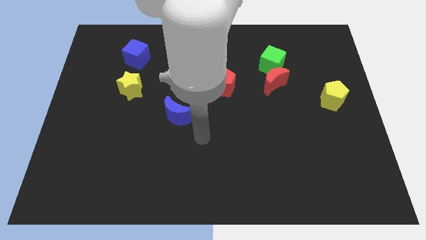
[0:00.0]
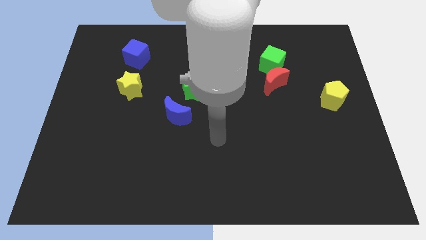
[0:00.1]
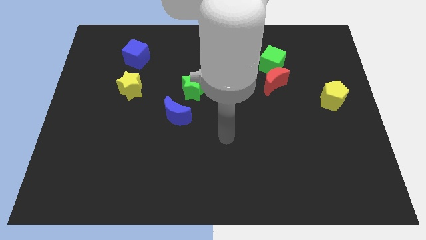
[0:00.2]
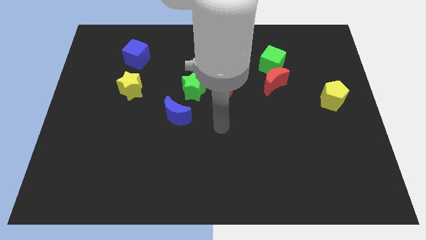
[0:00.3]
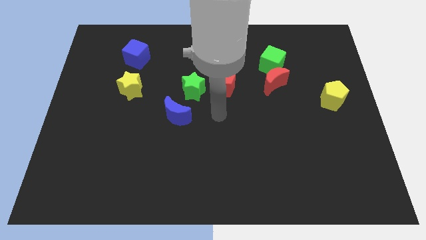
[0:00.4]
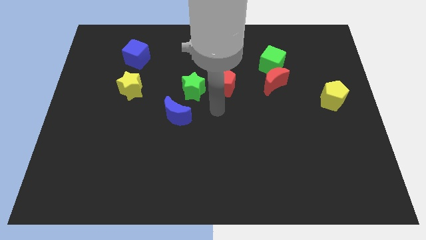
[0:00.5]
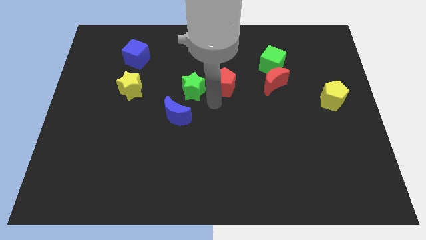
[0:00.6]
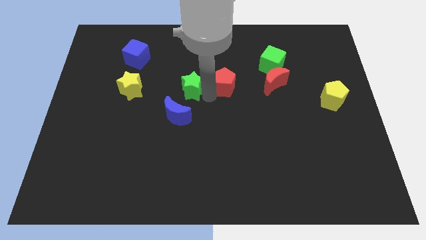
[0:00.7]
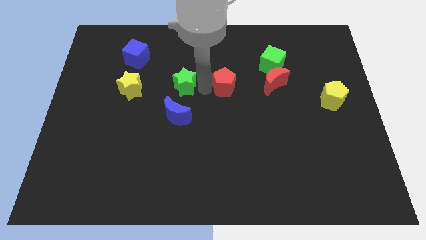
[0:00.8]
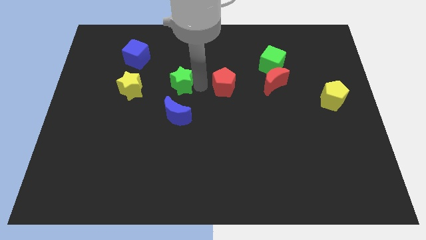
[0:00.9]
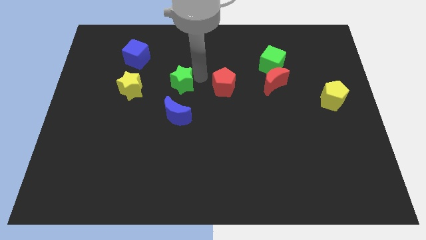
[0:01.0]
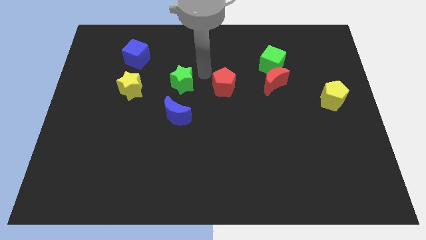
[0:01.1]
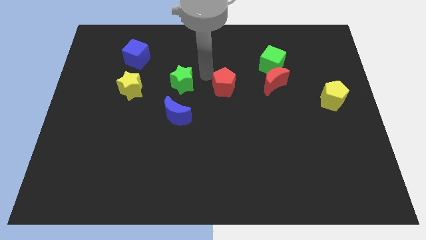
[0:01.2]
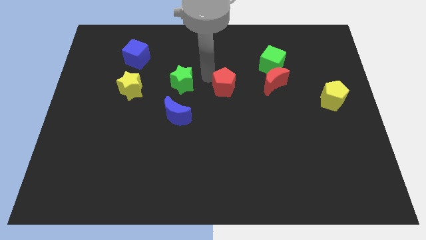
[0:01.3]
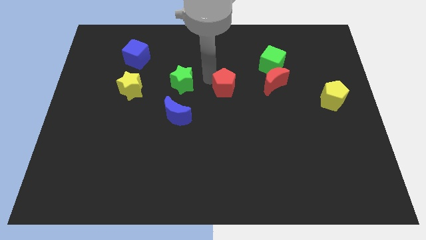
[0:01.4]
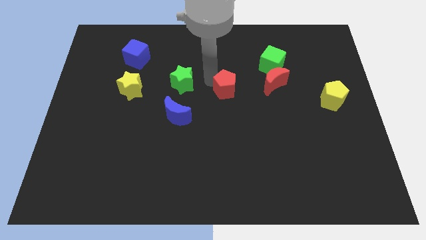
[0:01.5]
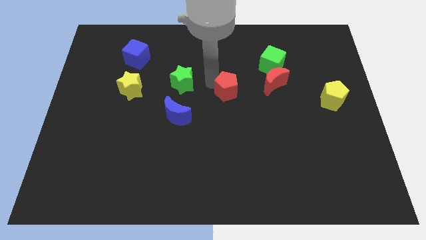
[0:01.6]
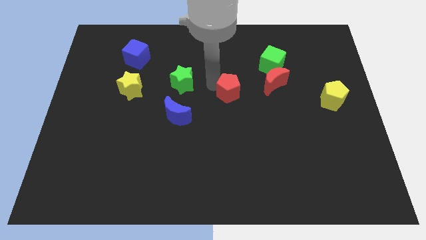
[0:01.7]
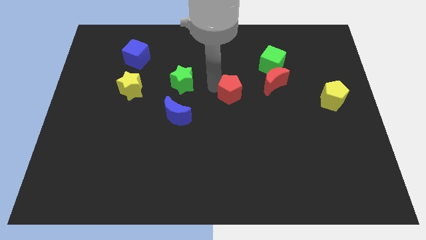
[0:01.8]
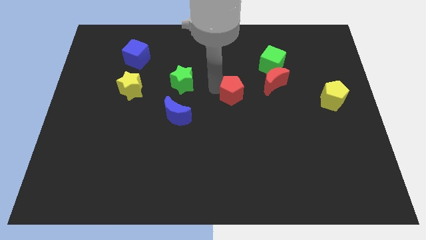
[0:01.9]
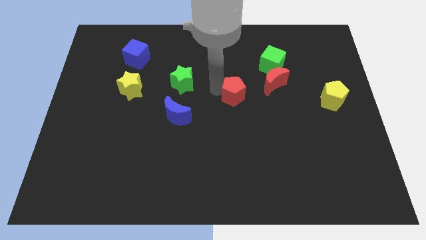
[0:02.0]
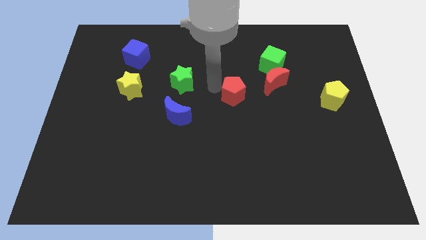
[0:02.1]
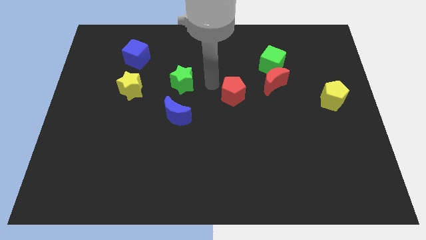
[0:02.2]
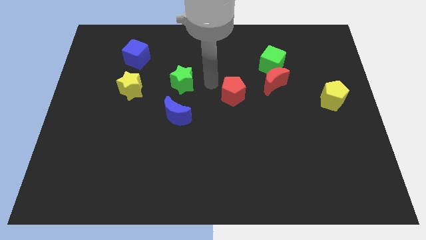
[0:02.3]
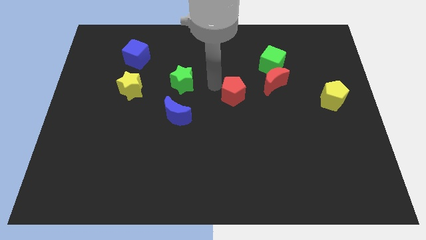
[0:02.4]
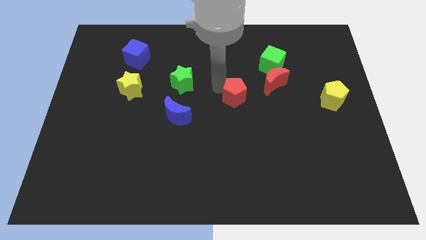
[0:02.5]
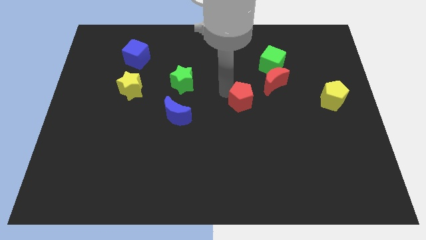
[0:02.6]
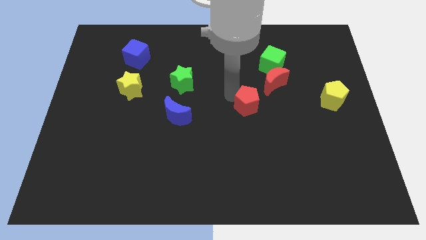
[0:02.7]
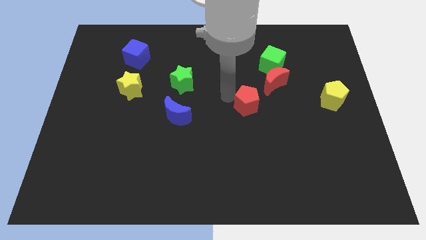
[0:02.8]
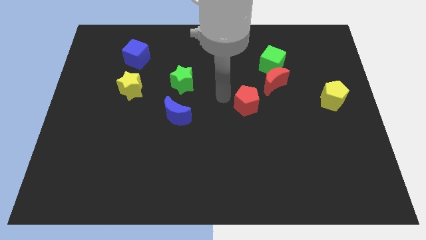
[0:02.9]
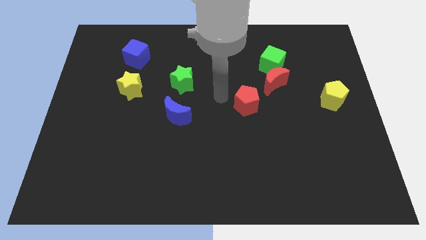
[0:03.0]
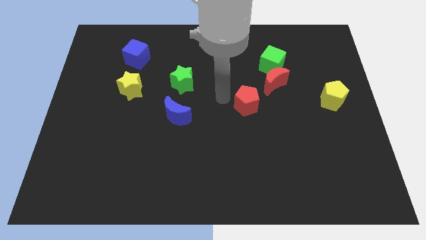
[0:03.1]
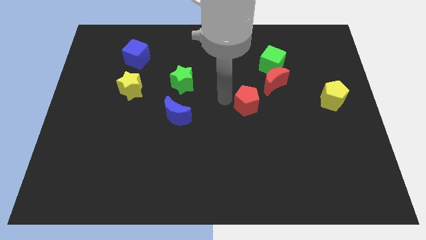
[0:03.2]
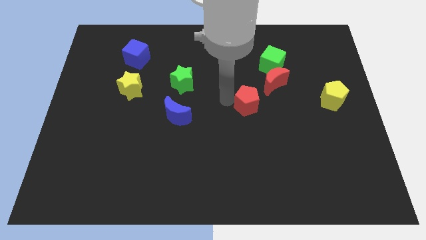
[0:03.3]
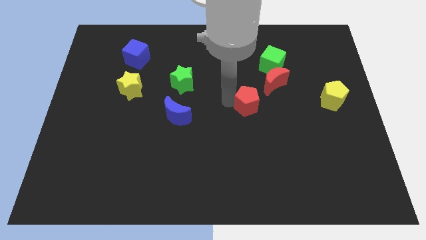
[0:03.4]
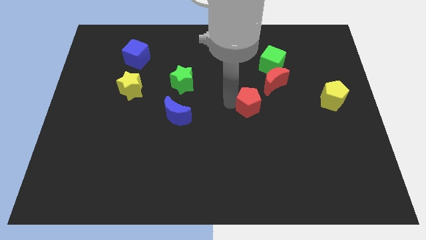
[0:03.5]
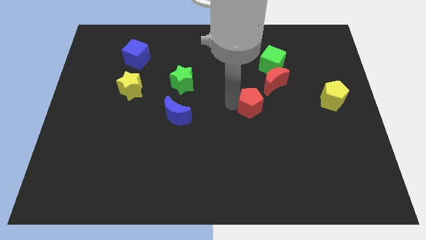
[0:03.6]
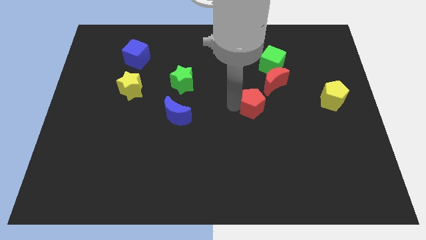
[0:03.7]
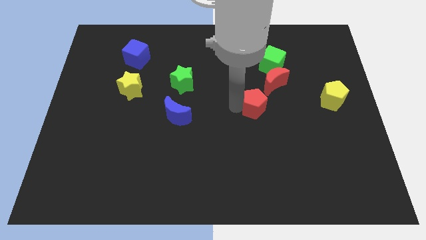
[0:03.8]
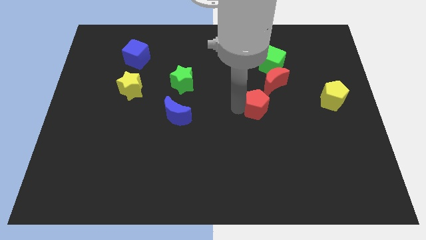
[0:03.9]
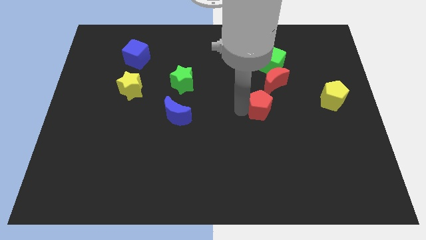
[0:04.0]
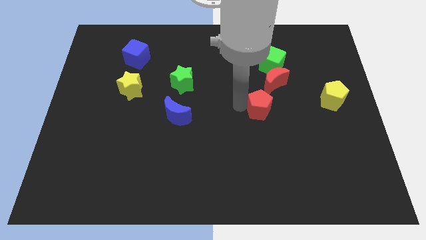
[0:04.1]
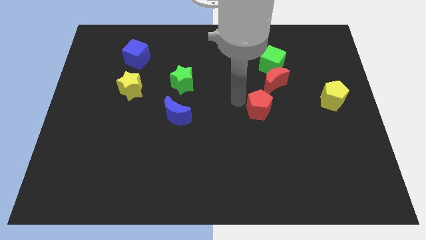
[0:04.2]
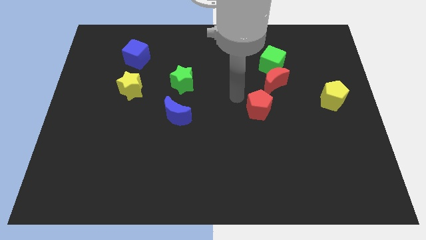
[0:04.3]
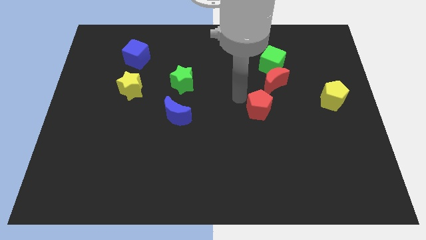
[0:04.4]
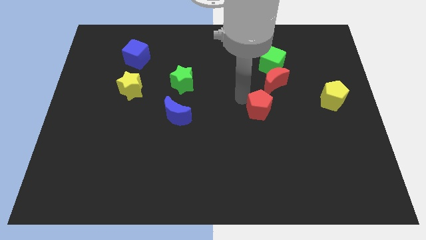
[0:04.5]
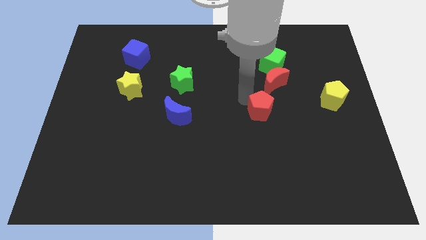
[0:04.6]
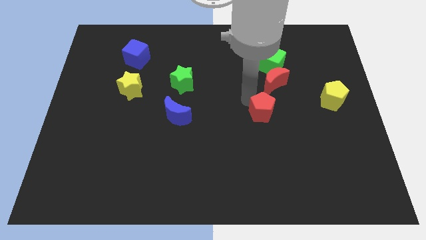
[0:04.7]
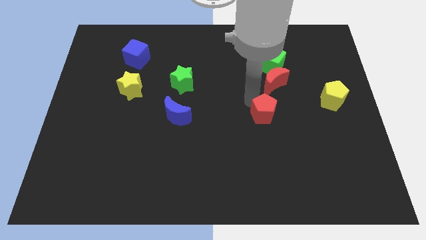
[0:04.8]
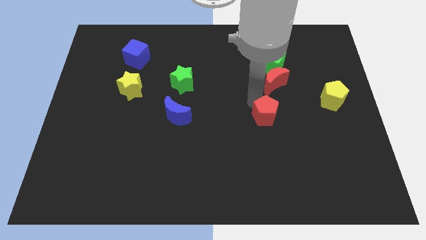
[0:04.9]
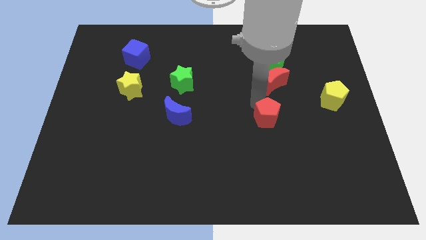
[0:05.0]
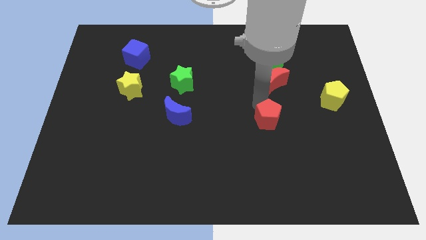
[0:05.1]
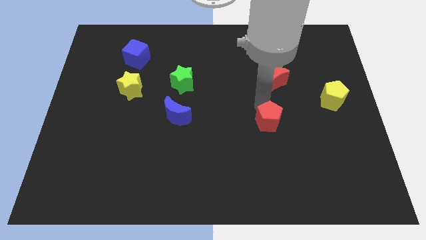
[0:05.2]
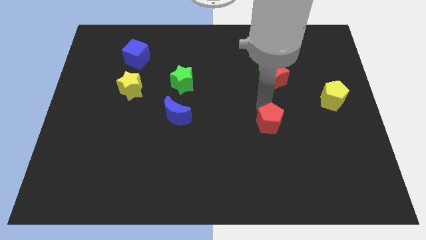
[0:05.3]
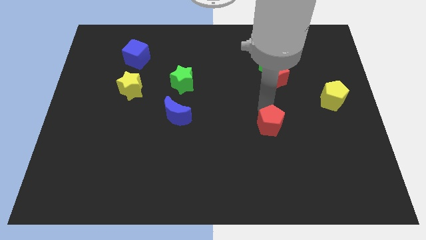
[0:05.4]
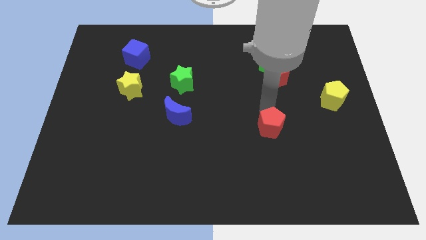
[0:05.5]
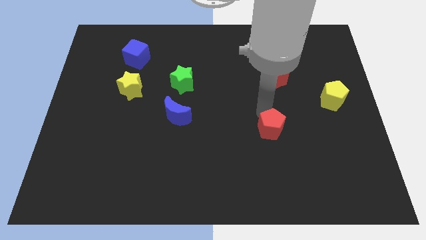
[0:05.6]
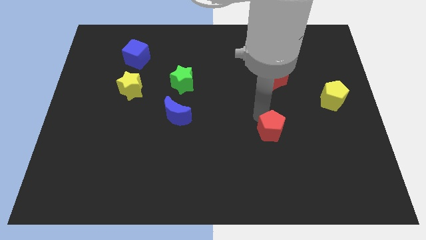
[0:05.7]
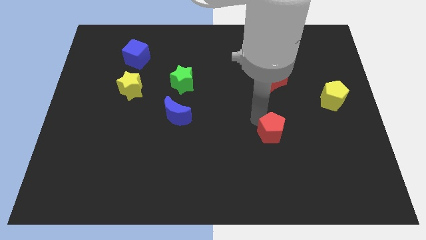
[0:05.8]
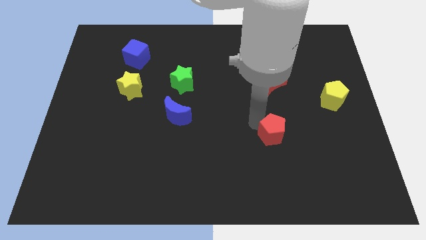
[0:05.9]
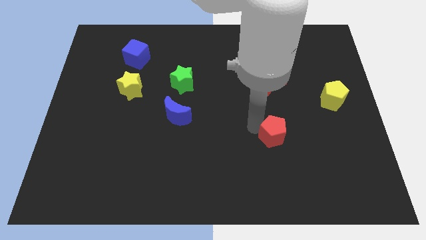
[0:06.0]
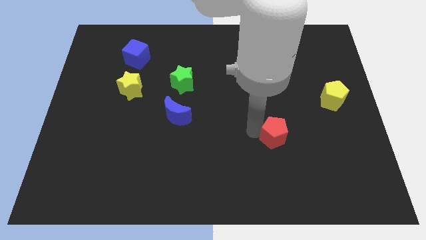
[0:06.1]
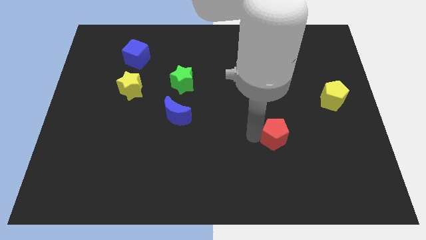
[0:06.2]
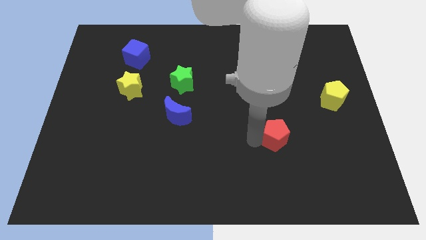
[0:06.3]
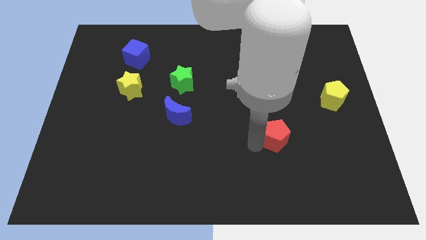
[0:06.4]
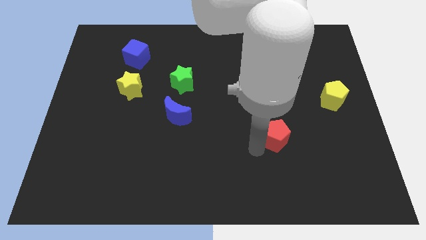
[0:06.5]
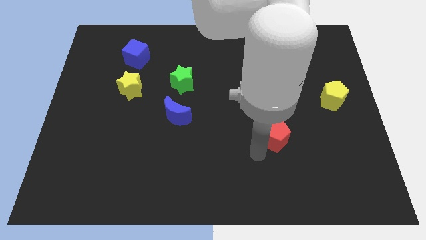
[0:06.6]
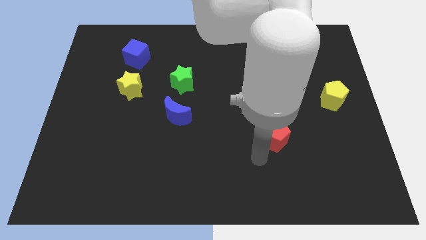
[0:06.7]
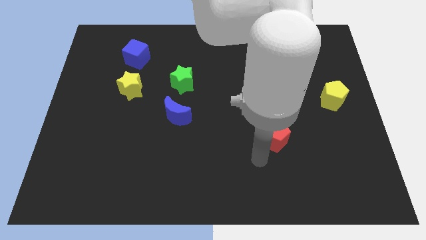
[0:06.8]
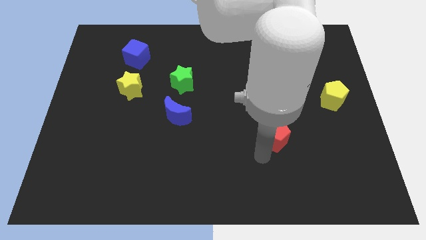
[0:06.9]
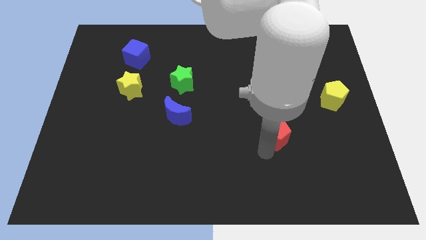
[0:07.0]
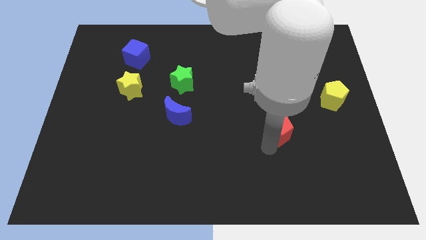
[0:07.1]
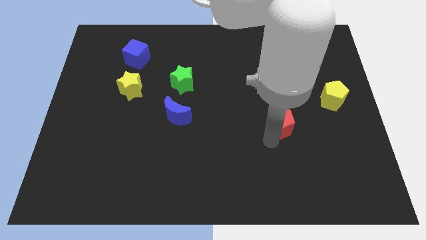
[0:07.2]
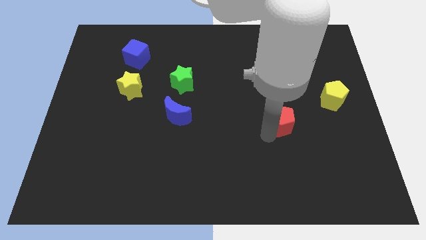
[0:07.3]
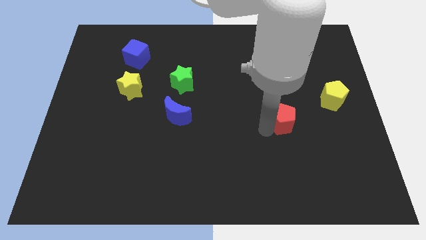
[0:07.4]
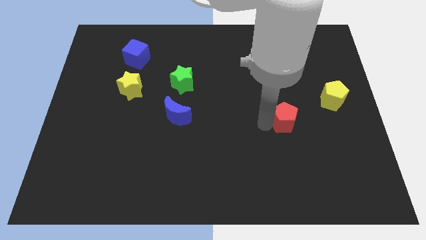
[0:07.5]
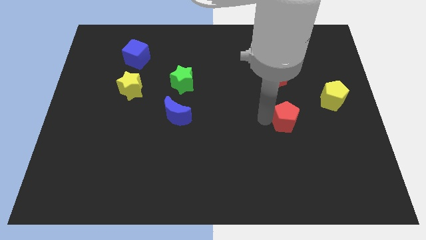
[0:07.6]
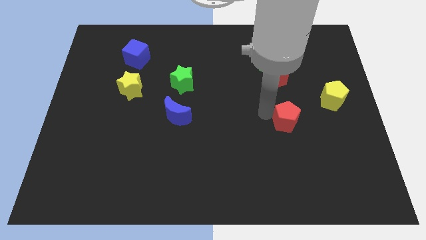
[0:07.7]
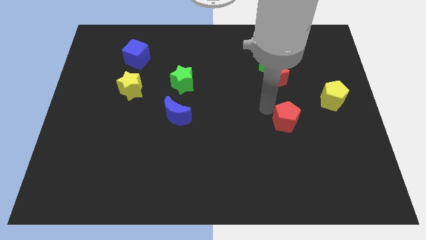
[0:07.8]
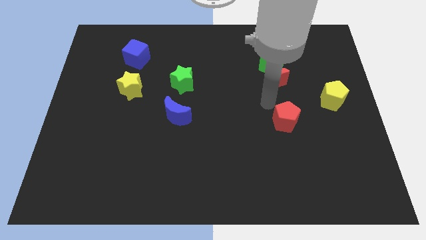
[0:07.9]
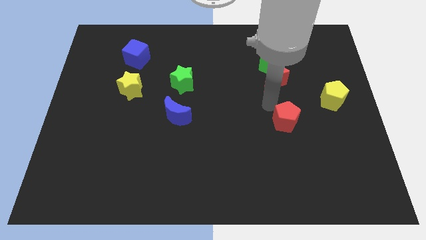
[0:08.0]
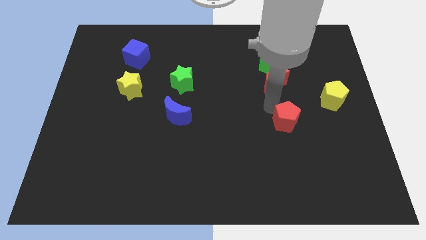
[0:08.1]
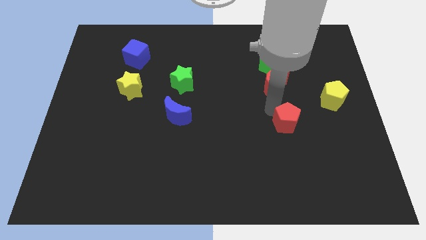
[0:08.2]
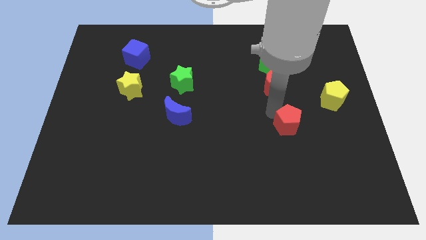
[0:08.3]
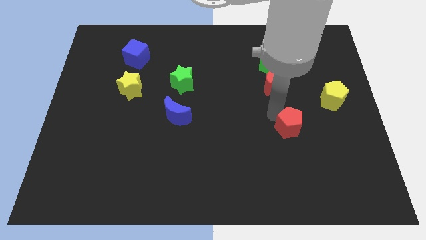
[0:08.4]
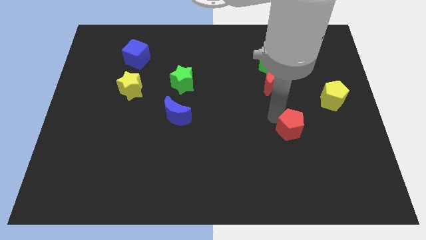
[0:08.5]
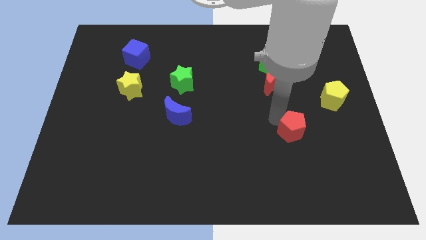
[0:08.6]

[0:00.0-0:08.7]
push the red pentagon down and then to the right
